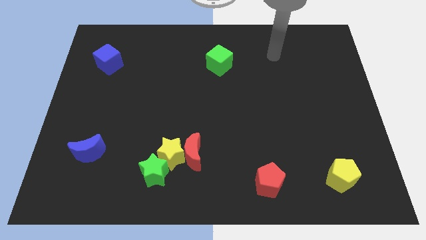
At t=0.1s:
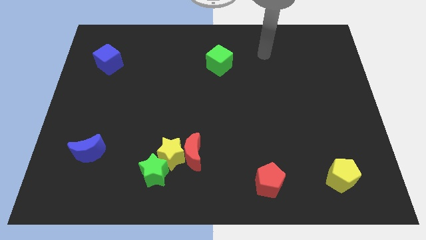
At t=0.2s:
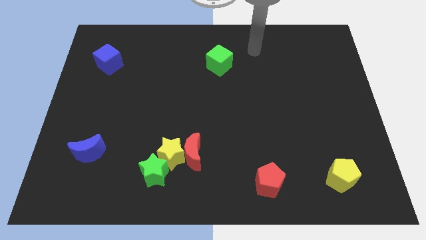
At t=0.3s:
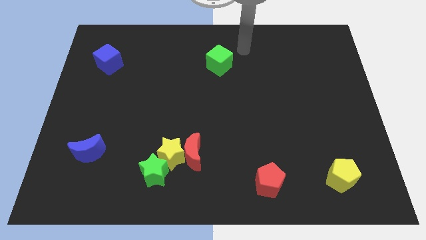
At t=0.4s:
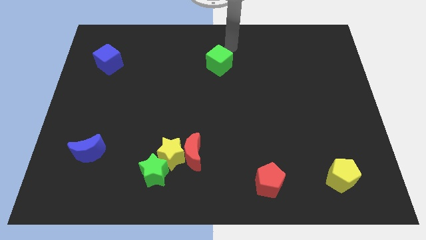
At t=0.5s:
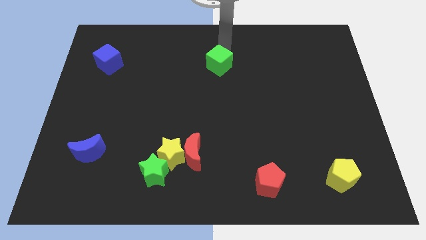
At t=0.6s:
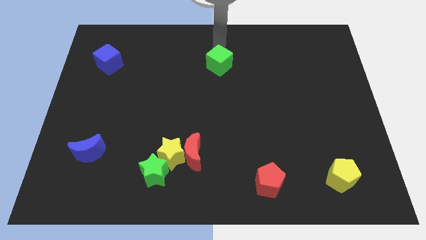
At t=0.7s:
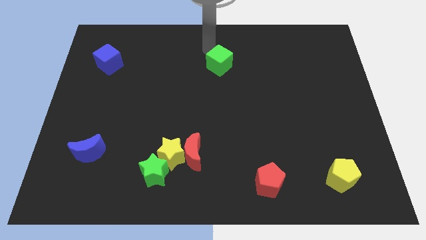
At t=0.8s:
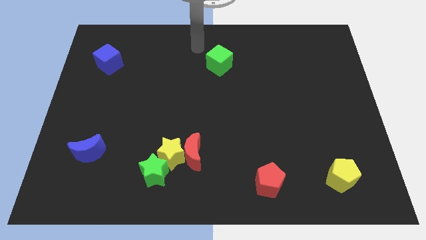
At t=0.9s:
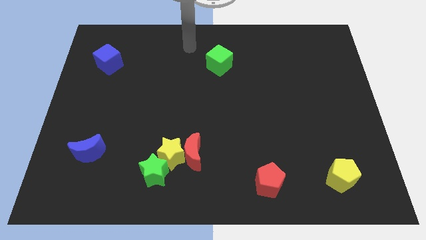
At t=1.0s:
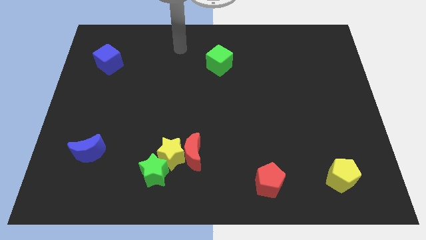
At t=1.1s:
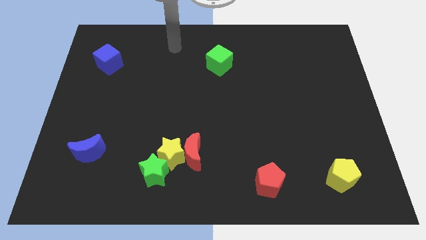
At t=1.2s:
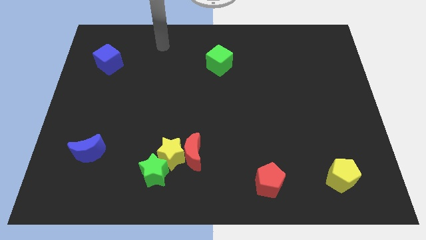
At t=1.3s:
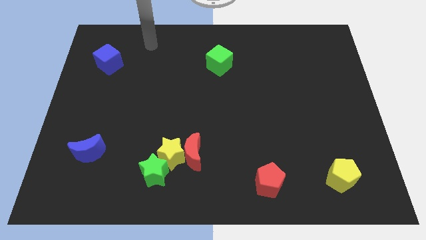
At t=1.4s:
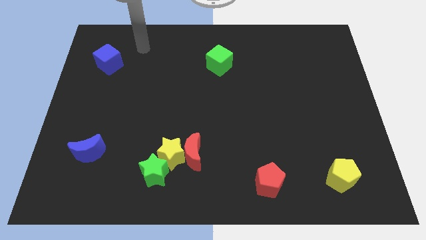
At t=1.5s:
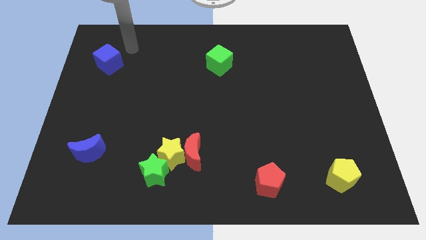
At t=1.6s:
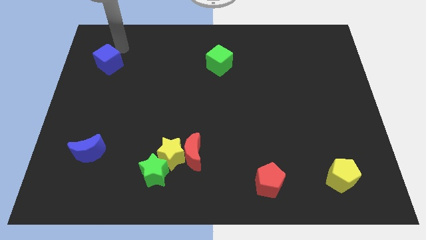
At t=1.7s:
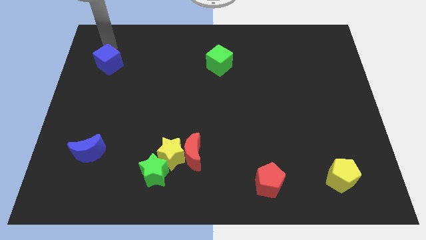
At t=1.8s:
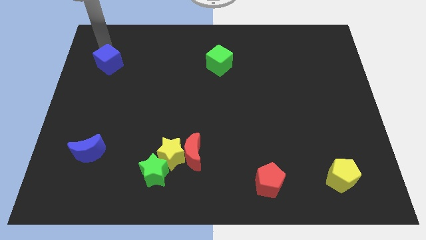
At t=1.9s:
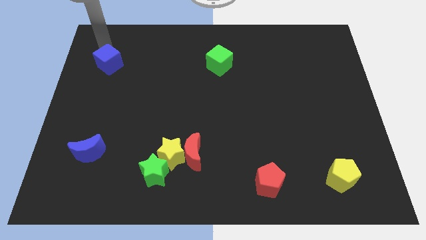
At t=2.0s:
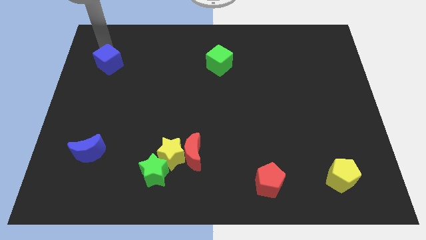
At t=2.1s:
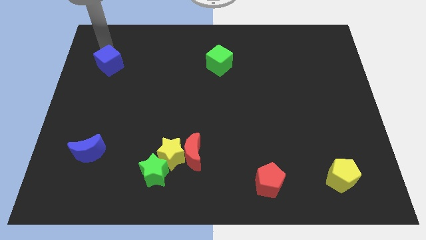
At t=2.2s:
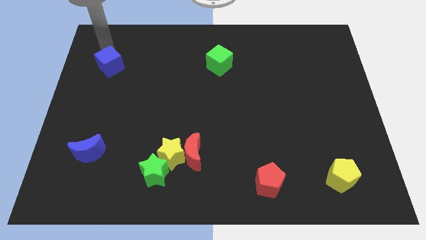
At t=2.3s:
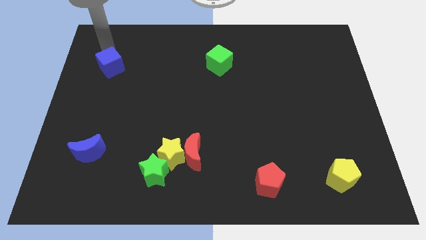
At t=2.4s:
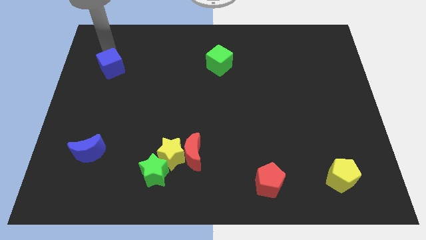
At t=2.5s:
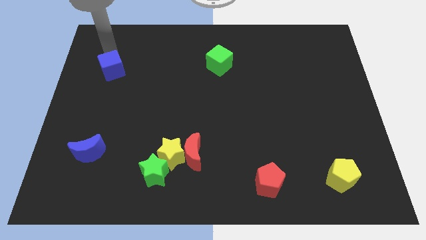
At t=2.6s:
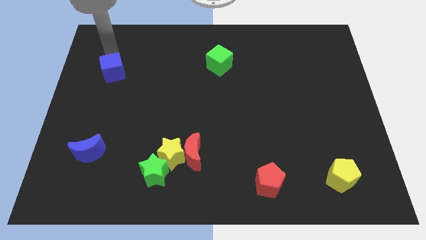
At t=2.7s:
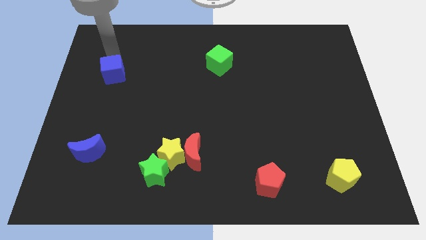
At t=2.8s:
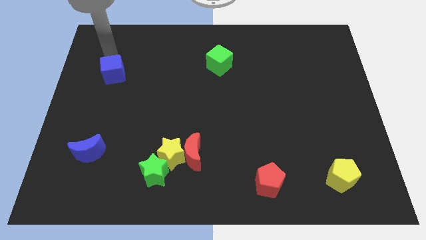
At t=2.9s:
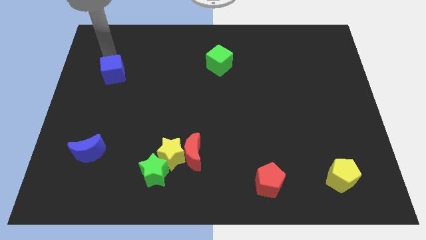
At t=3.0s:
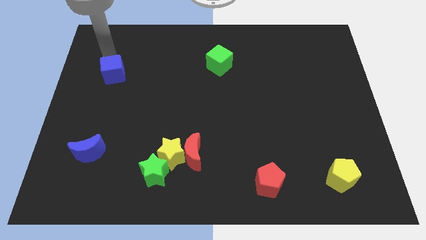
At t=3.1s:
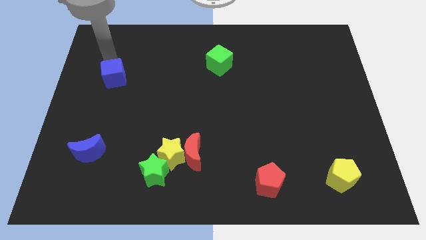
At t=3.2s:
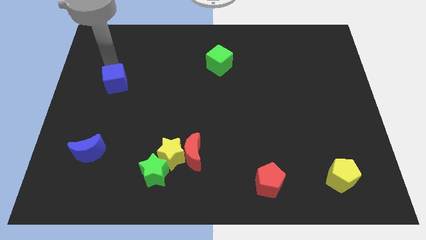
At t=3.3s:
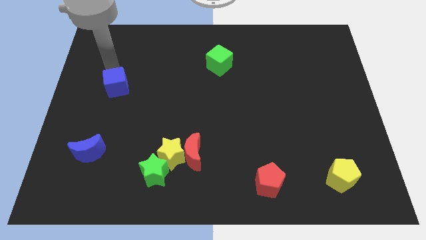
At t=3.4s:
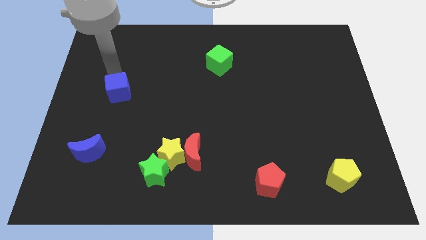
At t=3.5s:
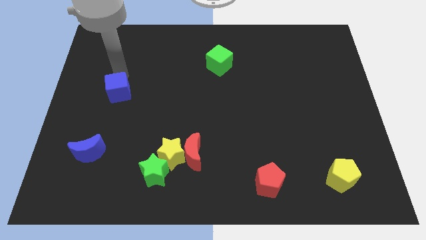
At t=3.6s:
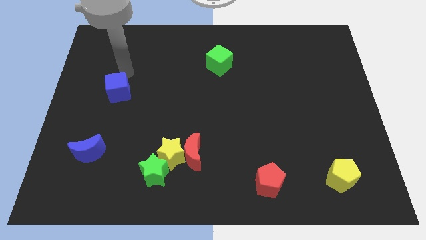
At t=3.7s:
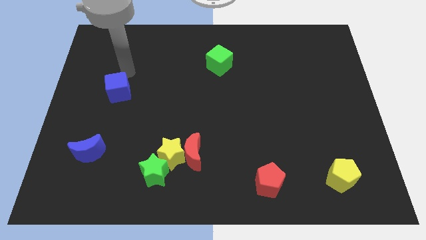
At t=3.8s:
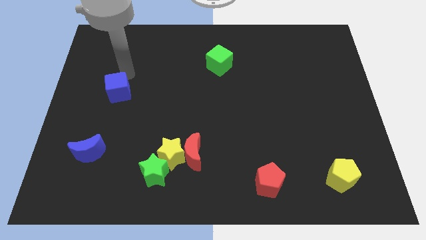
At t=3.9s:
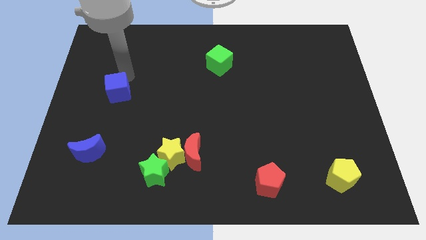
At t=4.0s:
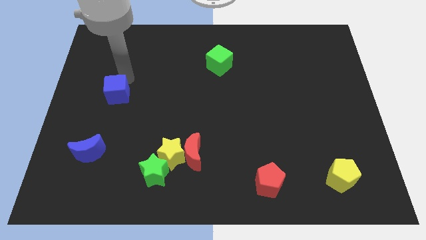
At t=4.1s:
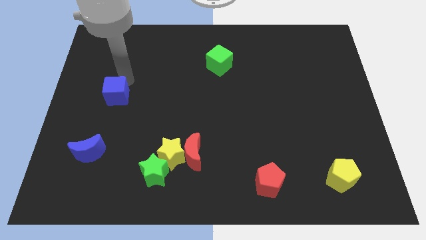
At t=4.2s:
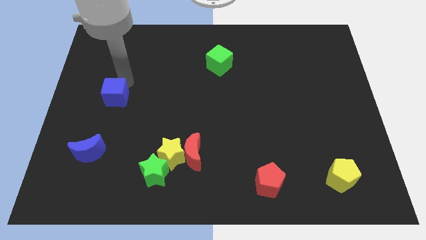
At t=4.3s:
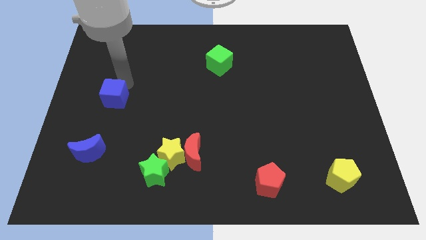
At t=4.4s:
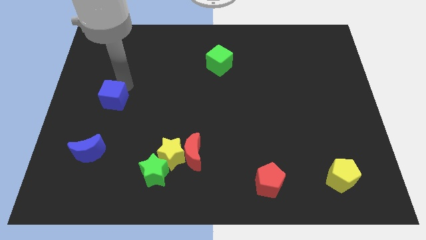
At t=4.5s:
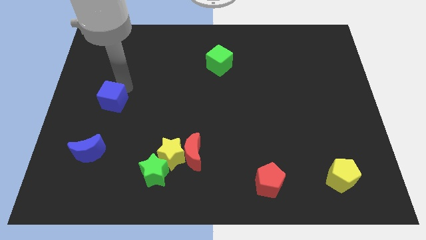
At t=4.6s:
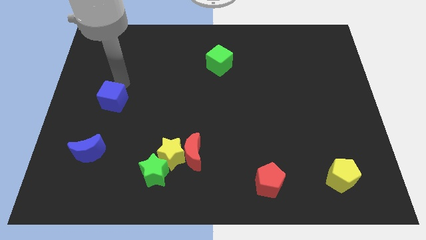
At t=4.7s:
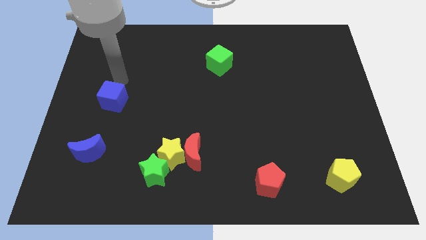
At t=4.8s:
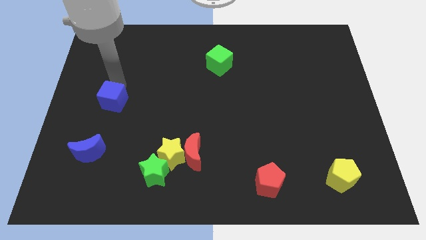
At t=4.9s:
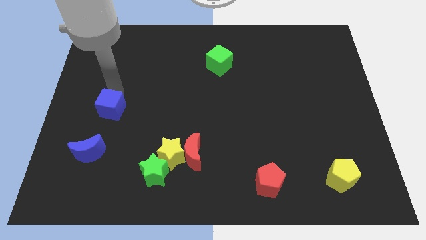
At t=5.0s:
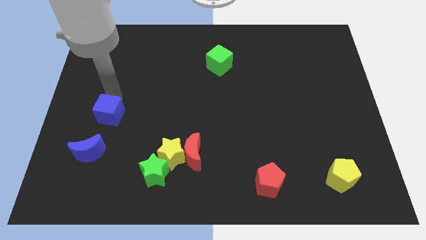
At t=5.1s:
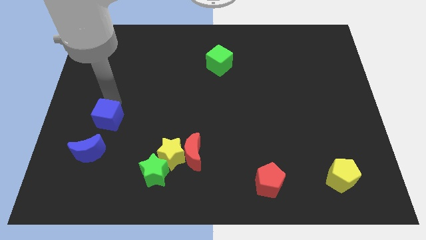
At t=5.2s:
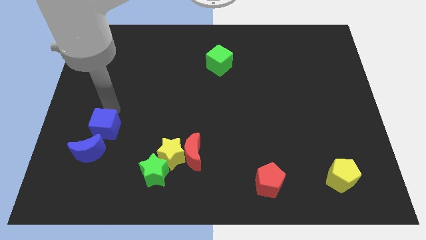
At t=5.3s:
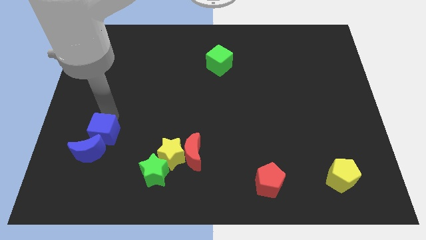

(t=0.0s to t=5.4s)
move the blue cube towards the blue moon

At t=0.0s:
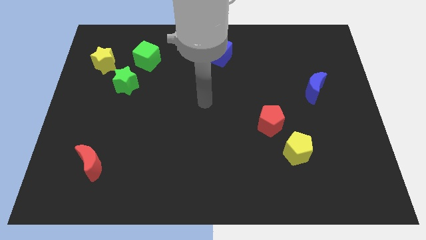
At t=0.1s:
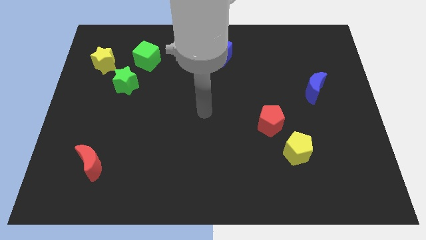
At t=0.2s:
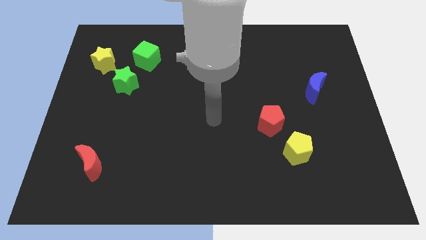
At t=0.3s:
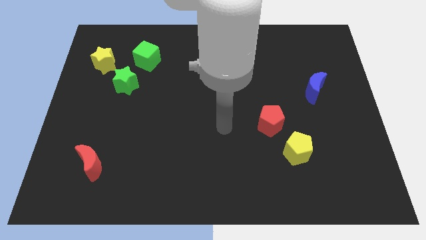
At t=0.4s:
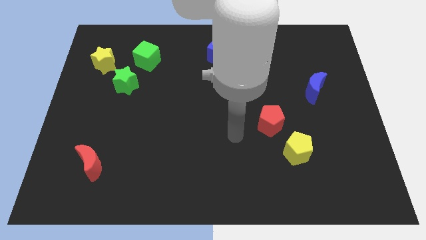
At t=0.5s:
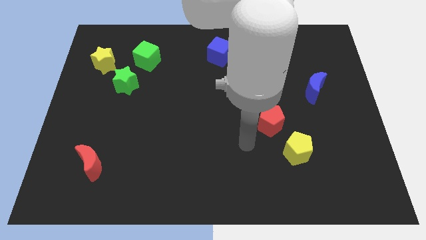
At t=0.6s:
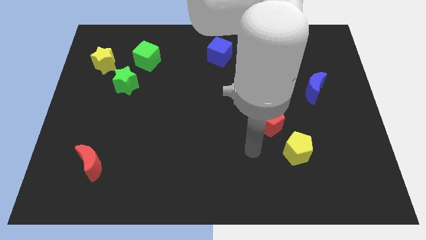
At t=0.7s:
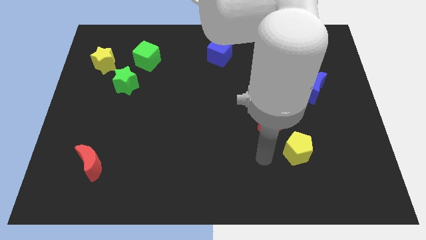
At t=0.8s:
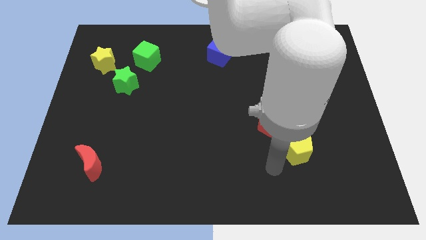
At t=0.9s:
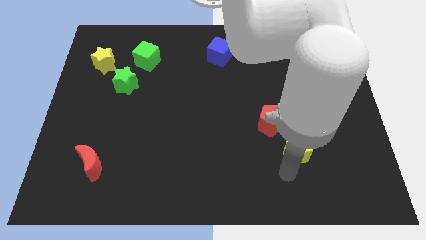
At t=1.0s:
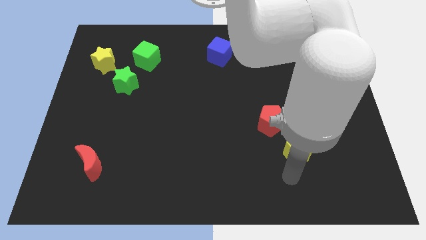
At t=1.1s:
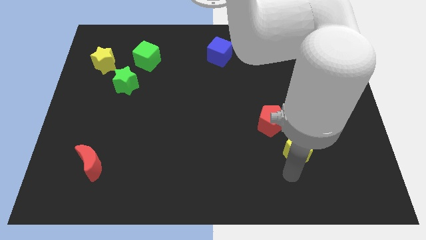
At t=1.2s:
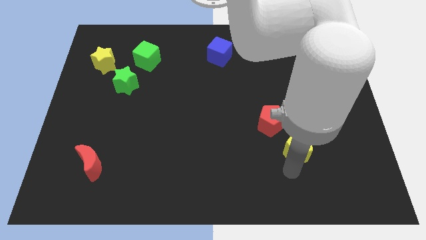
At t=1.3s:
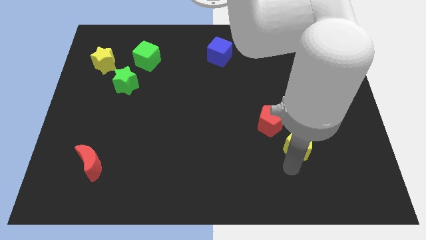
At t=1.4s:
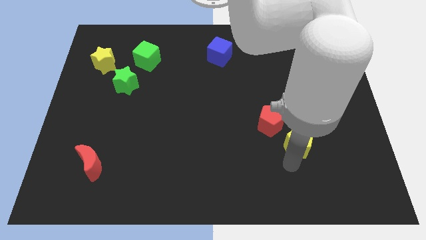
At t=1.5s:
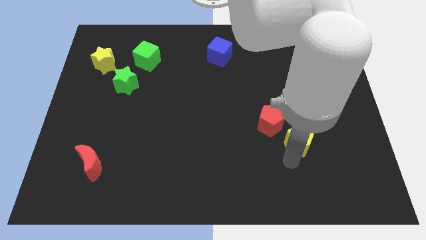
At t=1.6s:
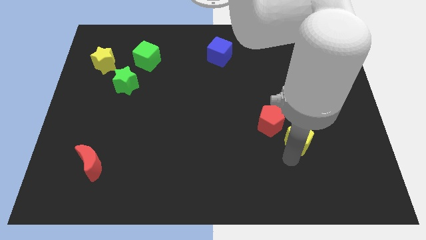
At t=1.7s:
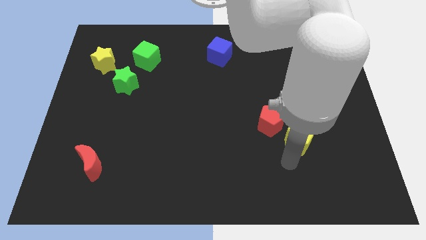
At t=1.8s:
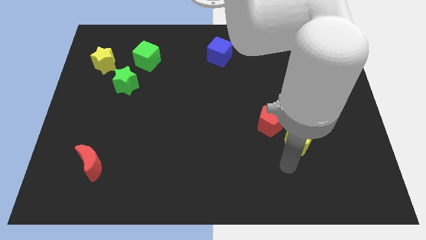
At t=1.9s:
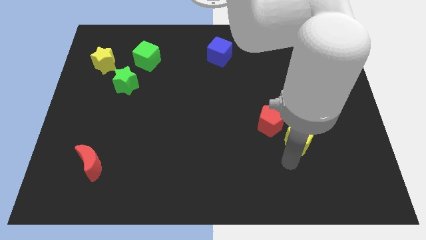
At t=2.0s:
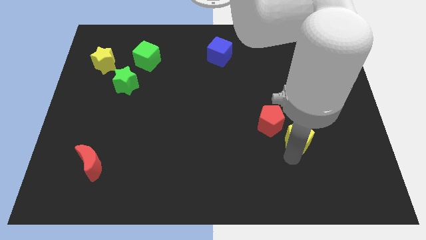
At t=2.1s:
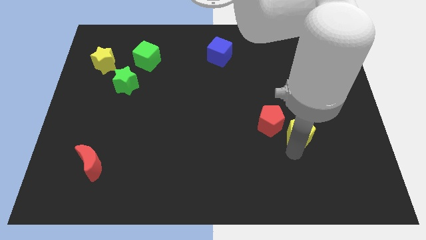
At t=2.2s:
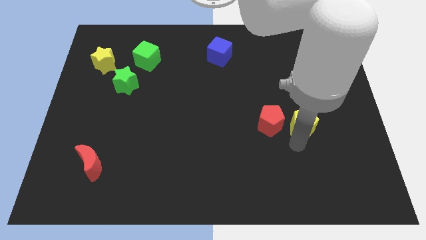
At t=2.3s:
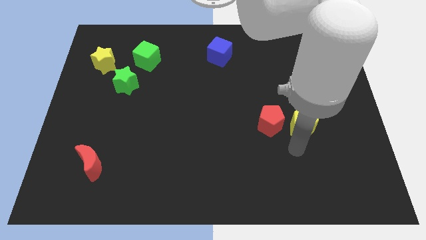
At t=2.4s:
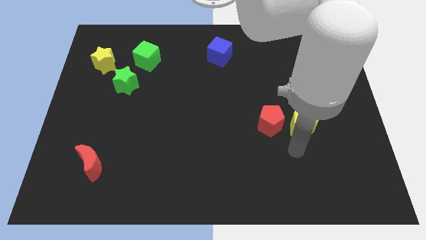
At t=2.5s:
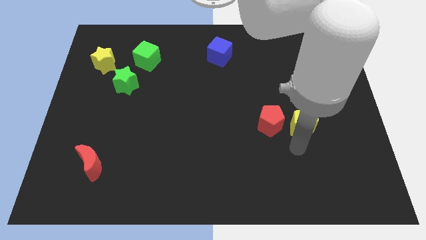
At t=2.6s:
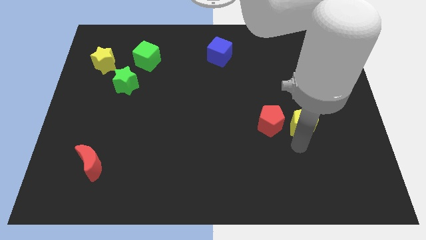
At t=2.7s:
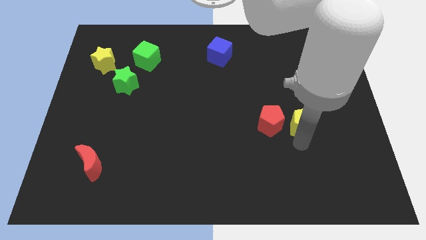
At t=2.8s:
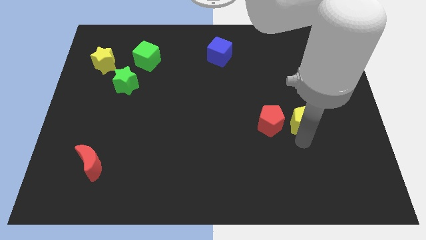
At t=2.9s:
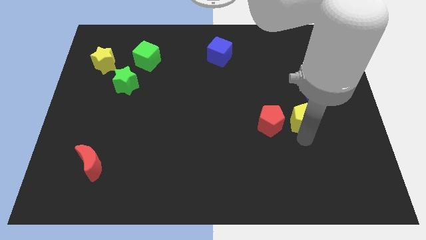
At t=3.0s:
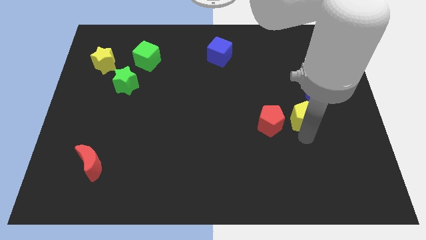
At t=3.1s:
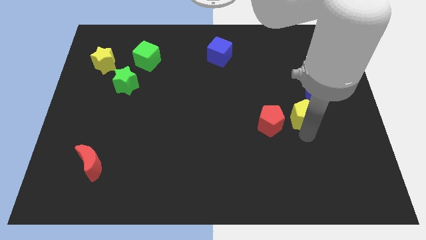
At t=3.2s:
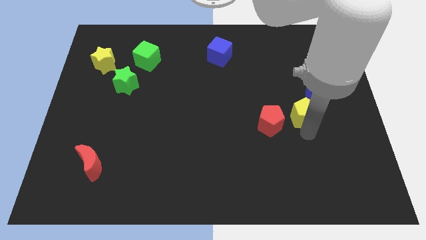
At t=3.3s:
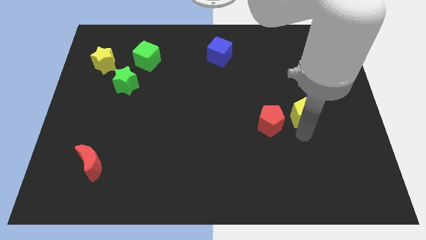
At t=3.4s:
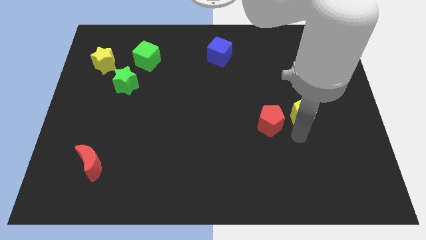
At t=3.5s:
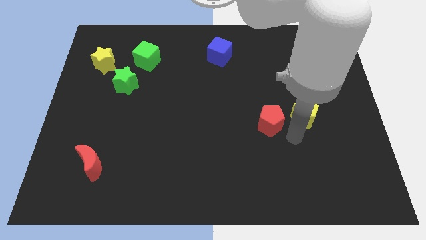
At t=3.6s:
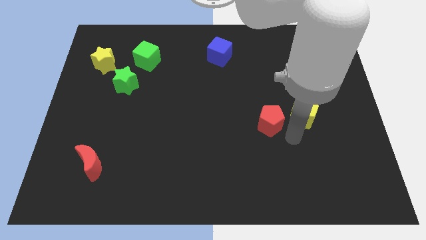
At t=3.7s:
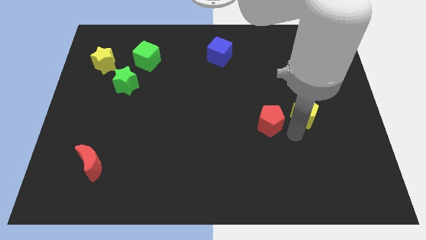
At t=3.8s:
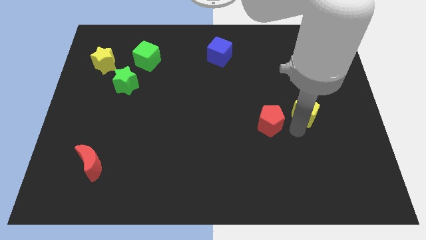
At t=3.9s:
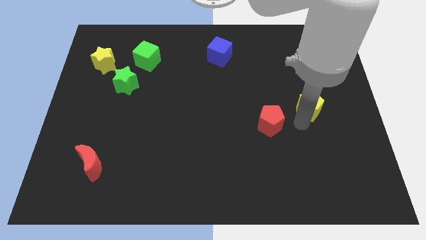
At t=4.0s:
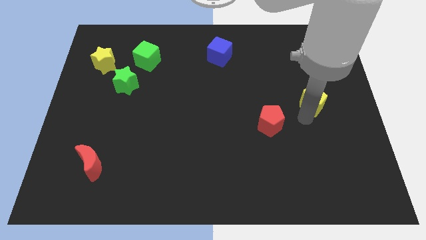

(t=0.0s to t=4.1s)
move the yellow pentagon close to the blue moon
